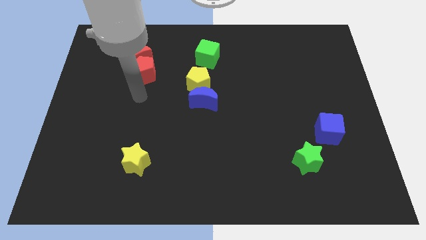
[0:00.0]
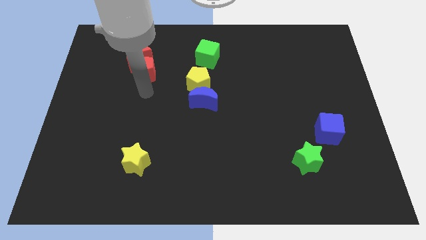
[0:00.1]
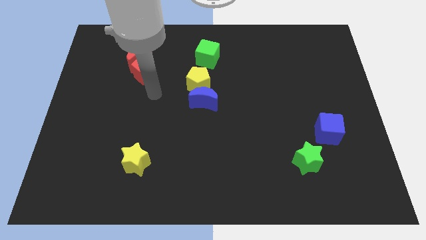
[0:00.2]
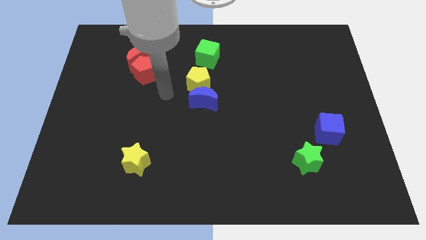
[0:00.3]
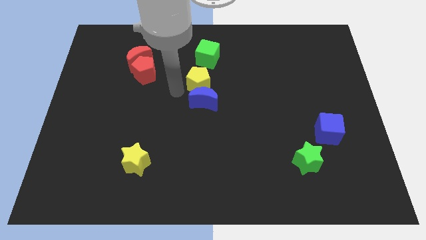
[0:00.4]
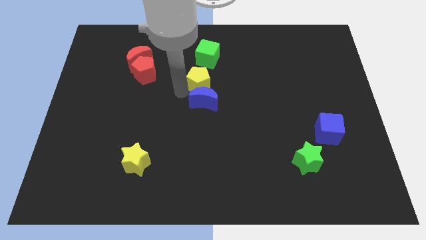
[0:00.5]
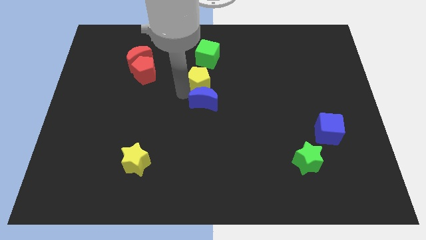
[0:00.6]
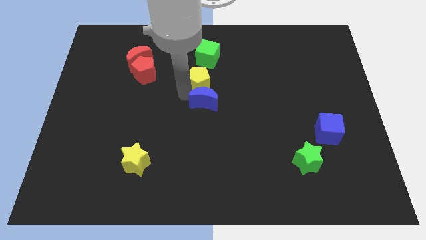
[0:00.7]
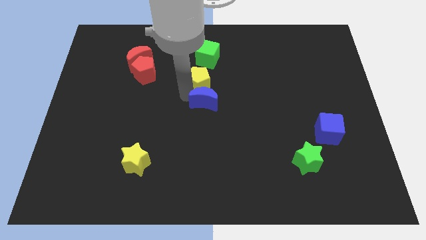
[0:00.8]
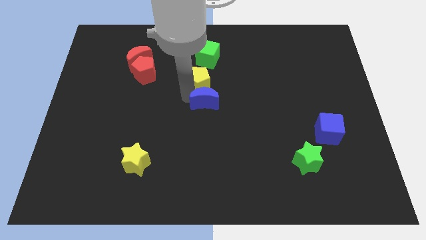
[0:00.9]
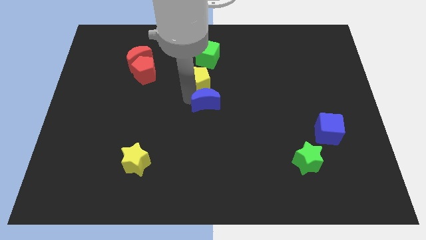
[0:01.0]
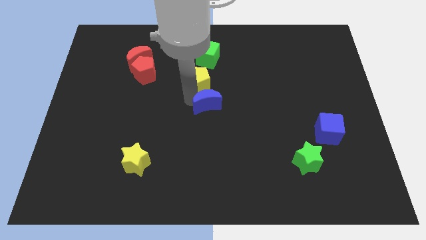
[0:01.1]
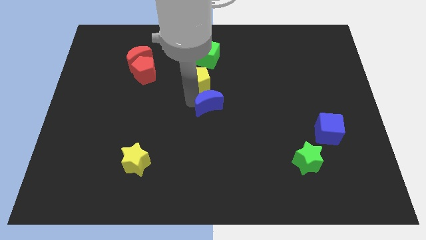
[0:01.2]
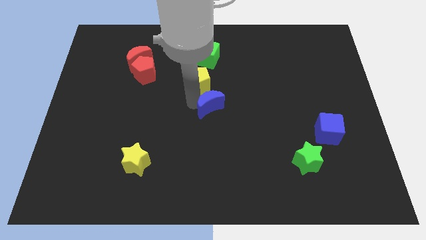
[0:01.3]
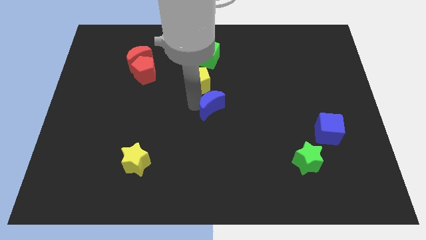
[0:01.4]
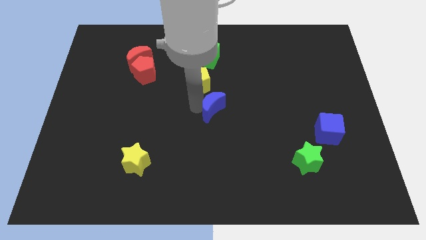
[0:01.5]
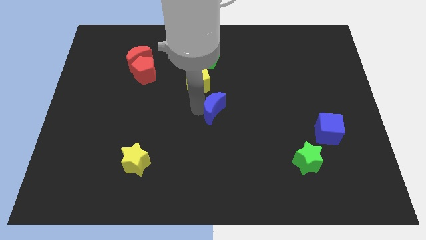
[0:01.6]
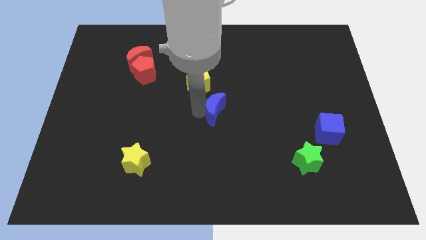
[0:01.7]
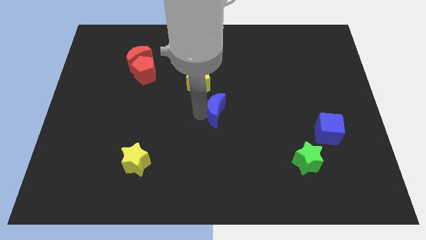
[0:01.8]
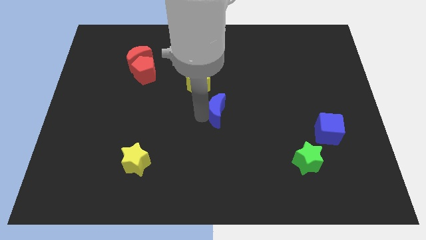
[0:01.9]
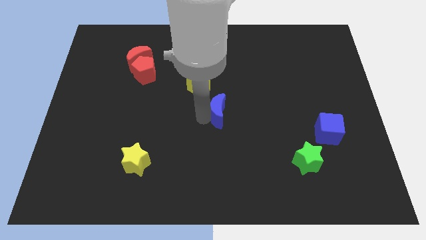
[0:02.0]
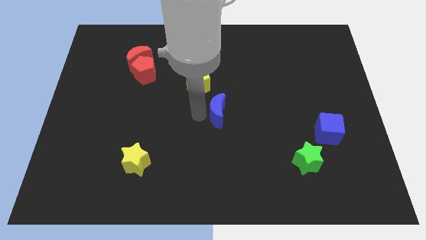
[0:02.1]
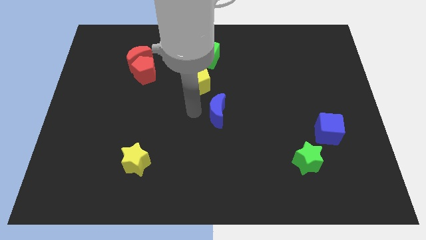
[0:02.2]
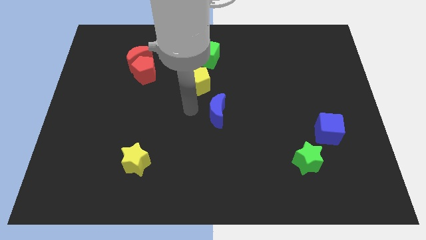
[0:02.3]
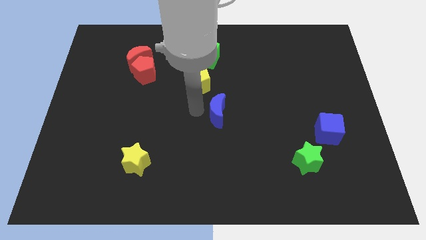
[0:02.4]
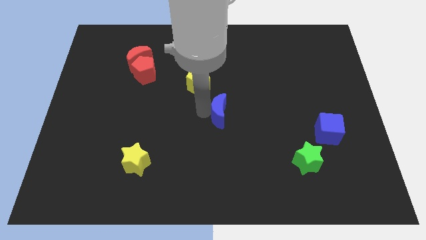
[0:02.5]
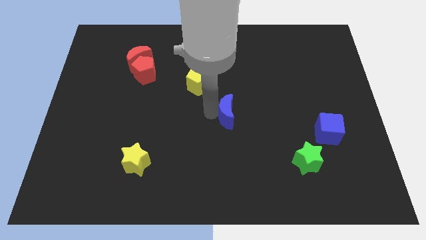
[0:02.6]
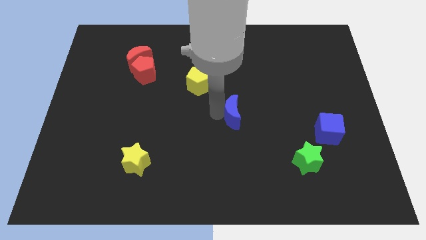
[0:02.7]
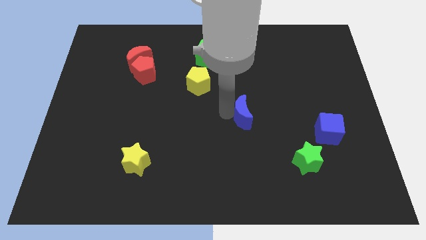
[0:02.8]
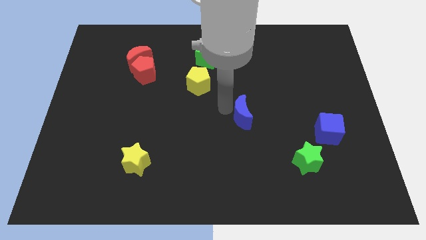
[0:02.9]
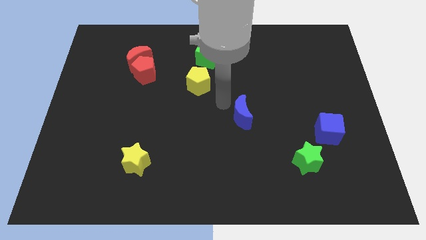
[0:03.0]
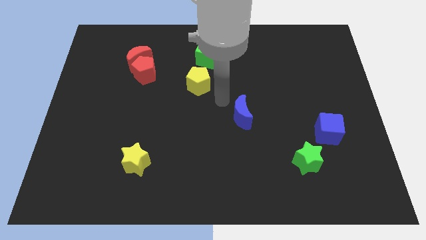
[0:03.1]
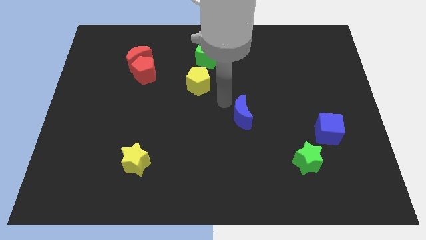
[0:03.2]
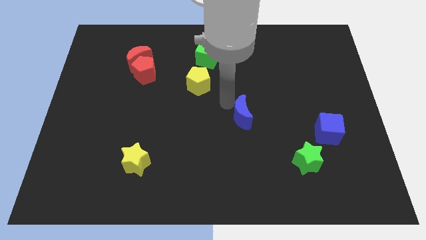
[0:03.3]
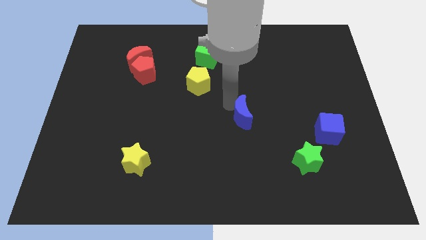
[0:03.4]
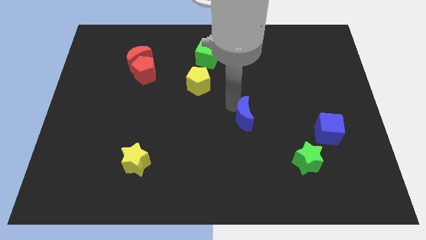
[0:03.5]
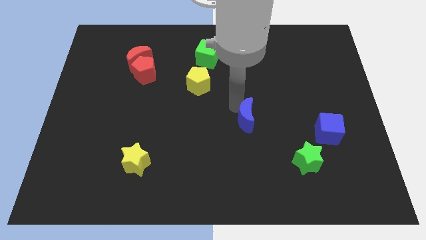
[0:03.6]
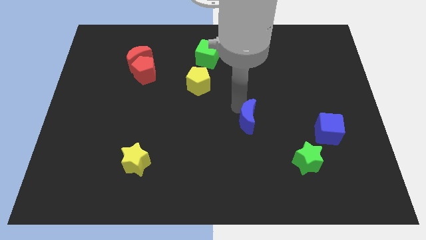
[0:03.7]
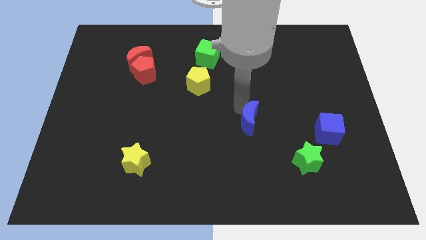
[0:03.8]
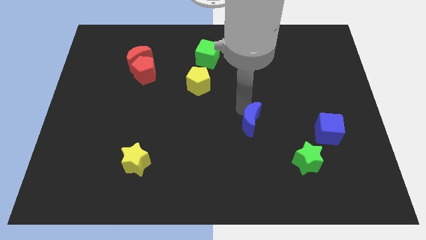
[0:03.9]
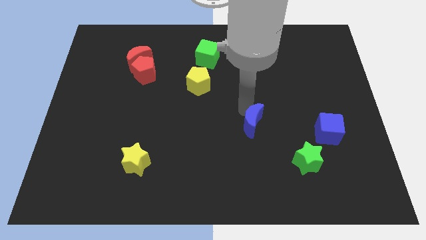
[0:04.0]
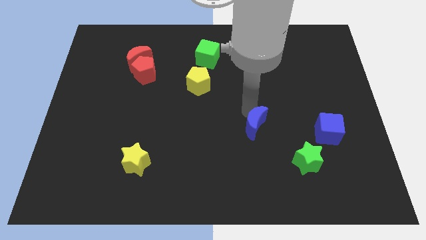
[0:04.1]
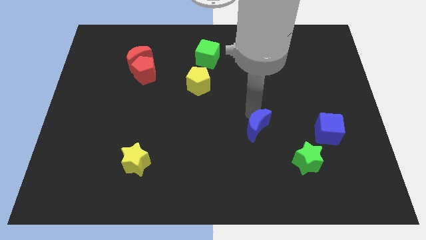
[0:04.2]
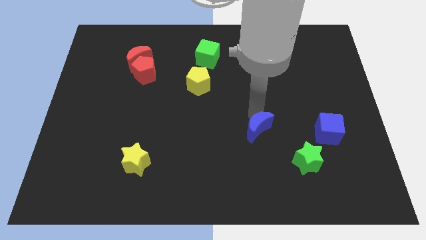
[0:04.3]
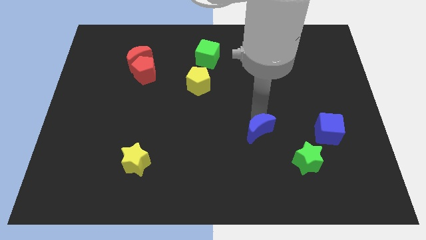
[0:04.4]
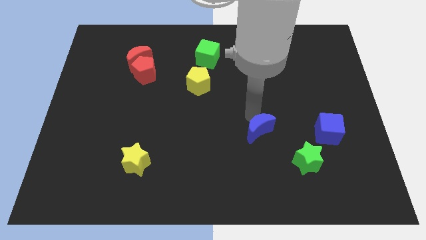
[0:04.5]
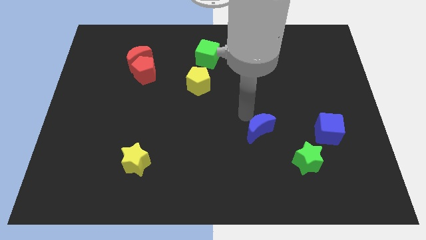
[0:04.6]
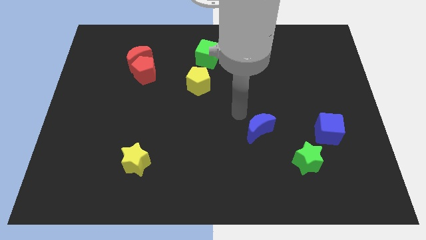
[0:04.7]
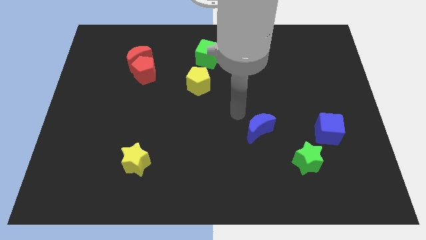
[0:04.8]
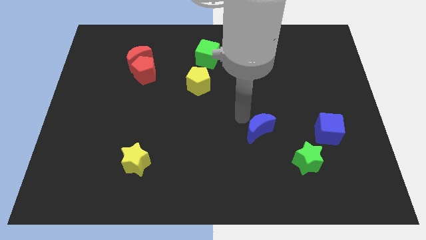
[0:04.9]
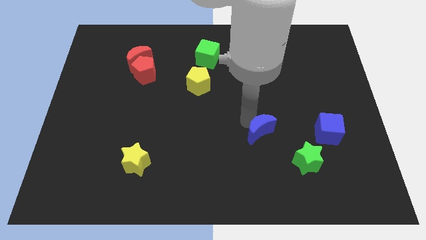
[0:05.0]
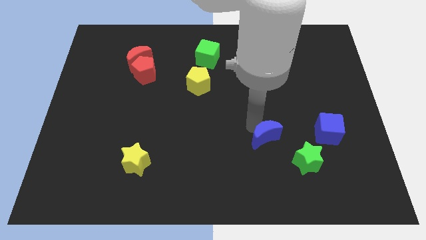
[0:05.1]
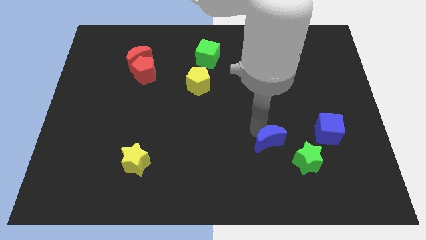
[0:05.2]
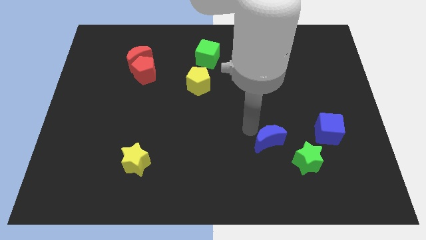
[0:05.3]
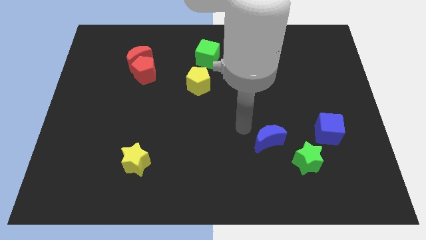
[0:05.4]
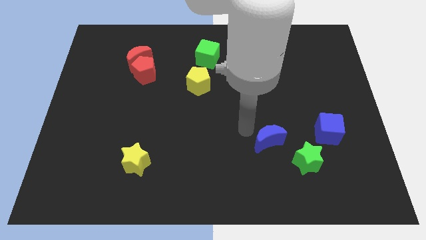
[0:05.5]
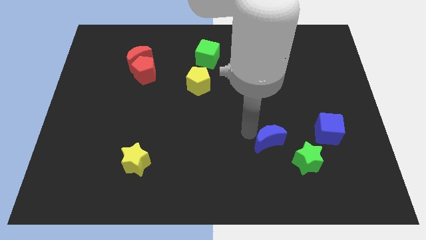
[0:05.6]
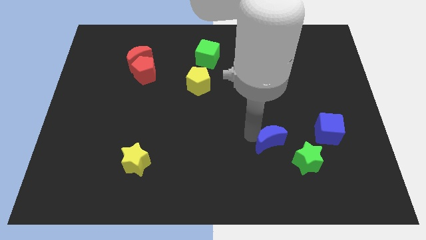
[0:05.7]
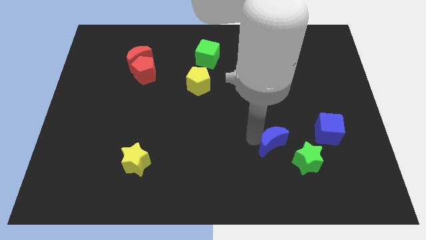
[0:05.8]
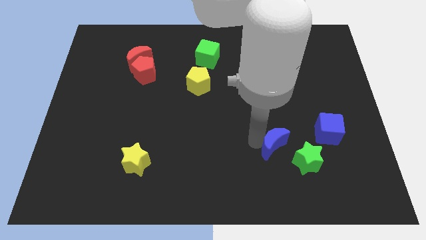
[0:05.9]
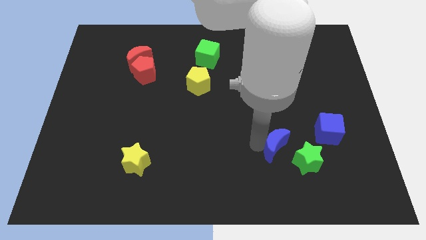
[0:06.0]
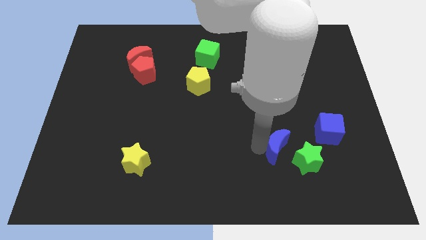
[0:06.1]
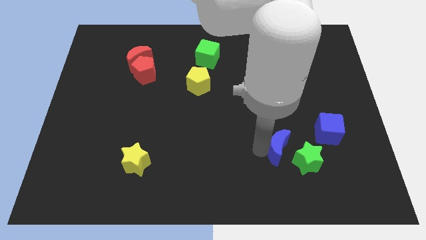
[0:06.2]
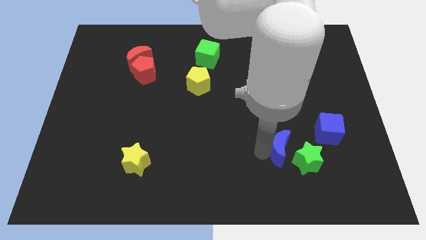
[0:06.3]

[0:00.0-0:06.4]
move the blue moon towards the green star

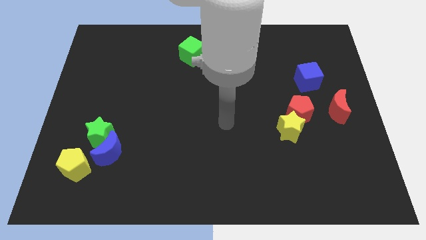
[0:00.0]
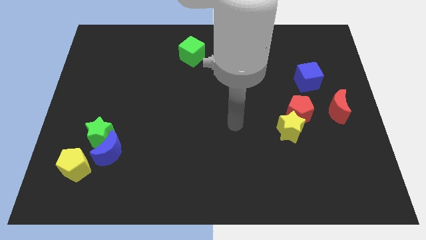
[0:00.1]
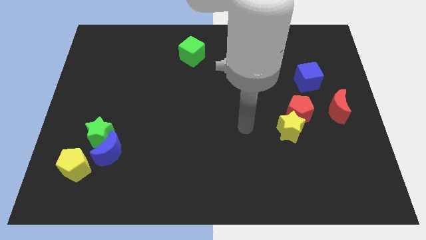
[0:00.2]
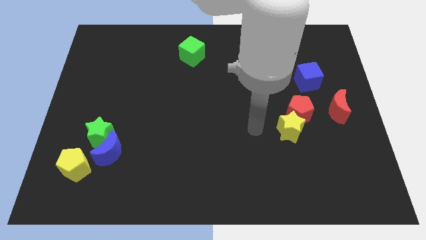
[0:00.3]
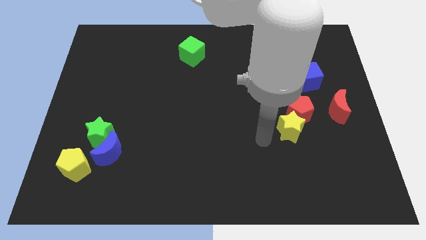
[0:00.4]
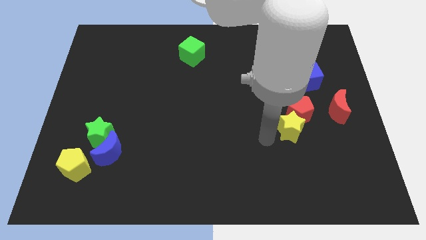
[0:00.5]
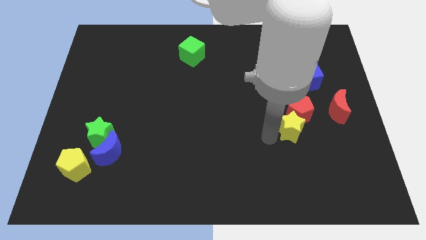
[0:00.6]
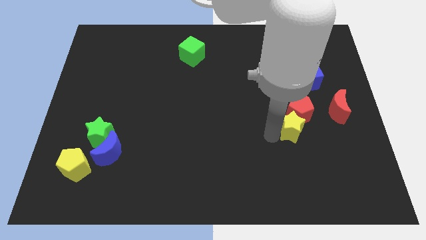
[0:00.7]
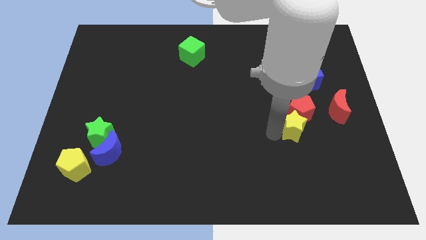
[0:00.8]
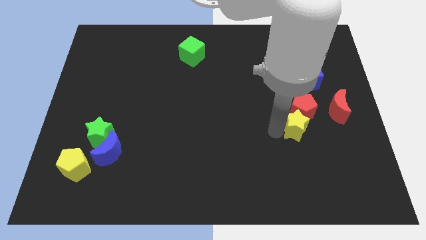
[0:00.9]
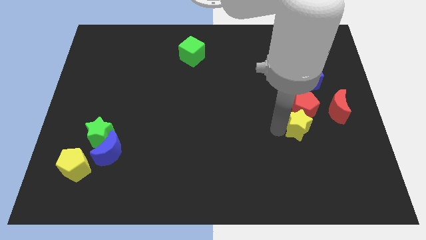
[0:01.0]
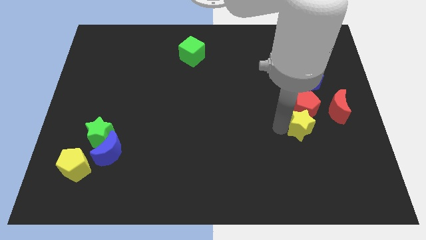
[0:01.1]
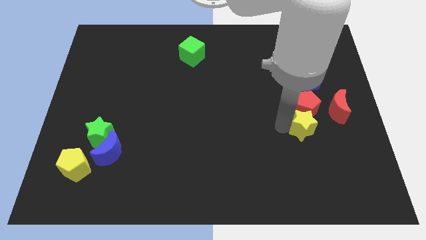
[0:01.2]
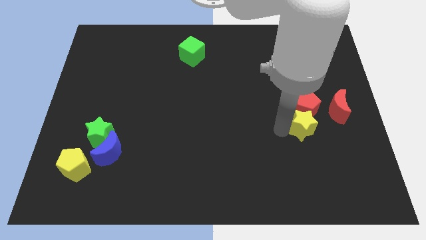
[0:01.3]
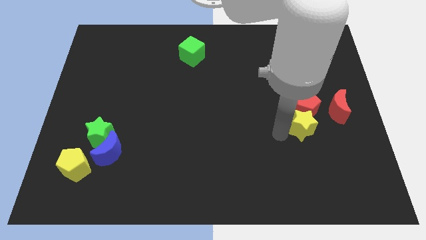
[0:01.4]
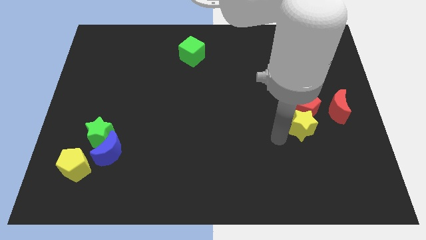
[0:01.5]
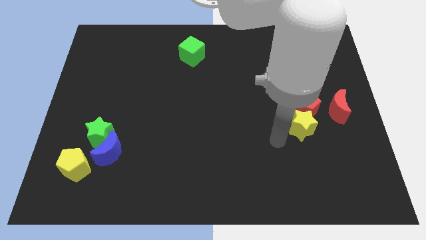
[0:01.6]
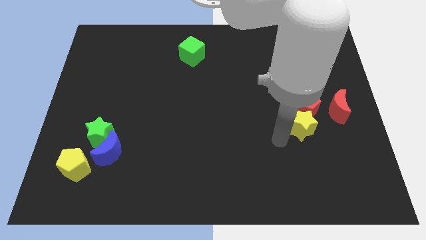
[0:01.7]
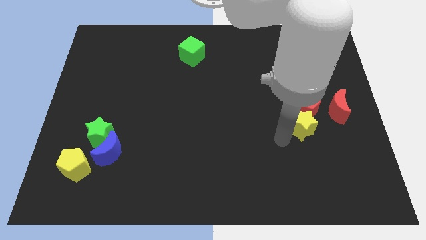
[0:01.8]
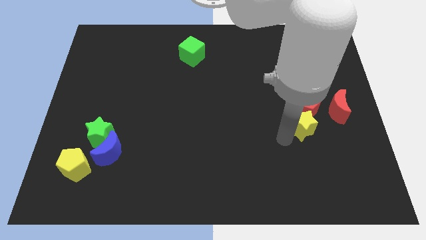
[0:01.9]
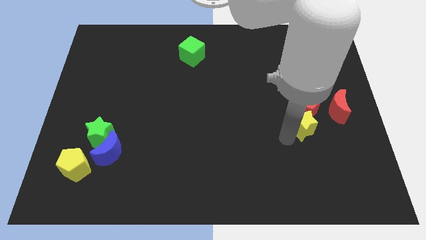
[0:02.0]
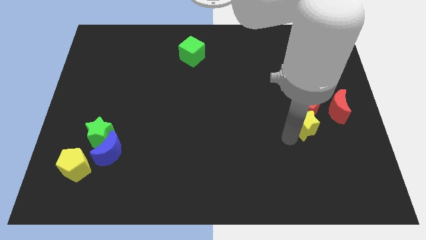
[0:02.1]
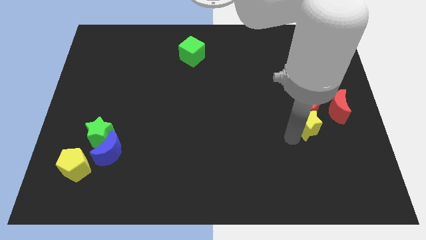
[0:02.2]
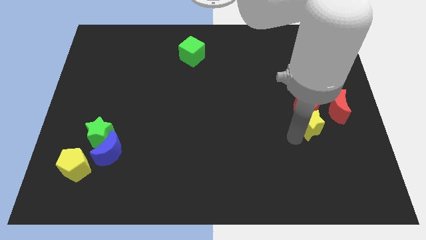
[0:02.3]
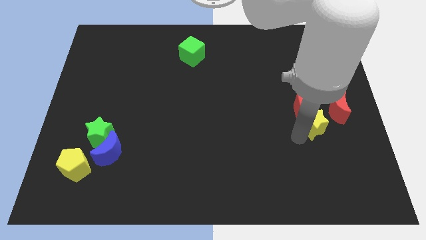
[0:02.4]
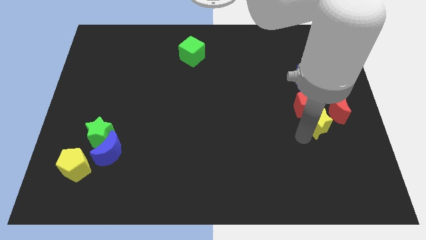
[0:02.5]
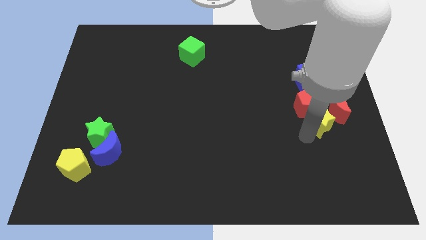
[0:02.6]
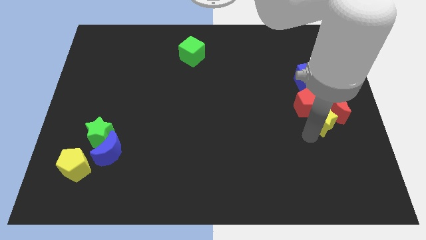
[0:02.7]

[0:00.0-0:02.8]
move the yellow star towards the red moon
